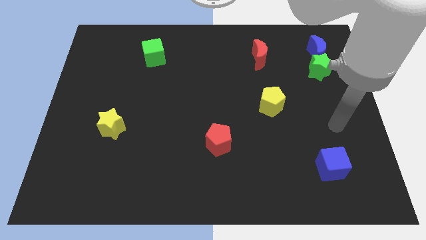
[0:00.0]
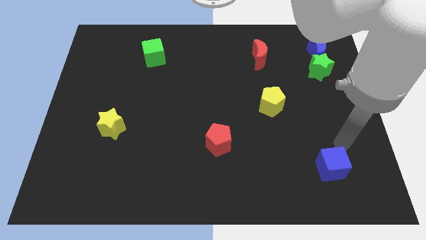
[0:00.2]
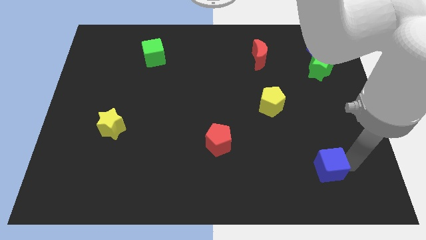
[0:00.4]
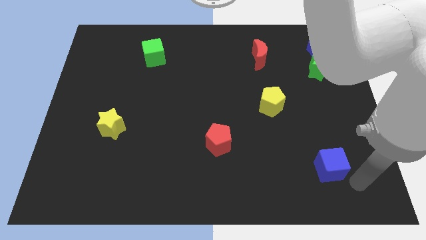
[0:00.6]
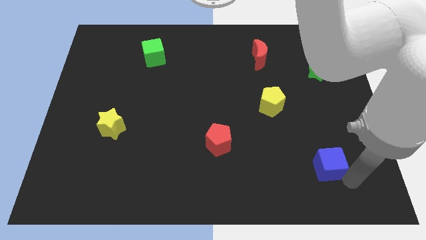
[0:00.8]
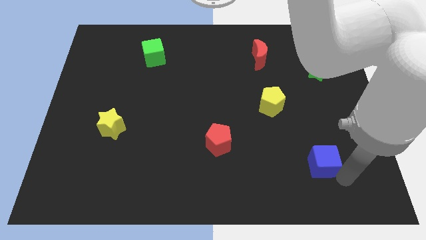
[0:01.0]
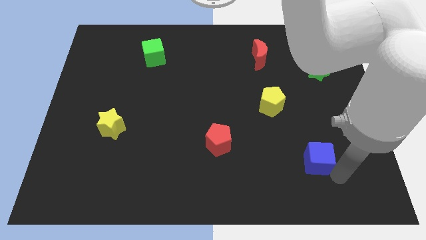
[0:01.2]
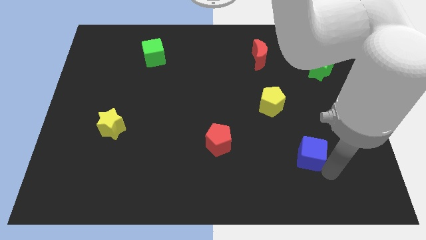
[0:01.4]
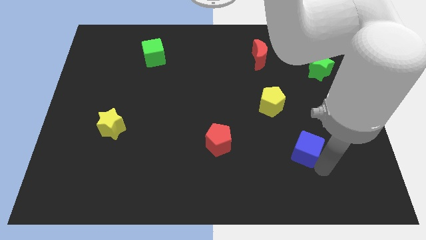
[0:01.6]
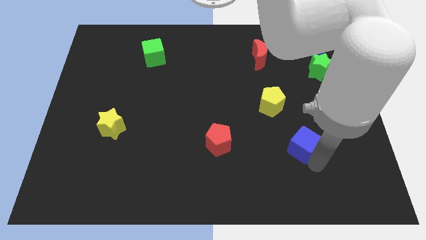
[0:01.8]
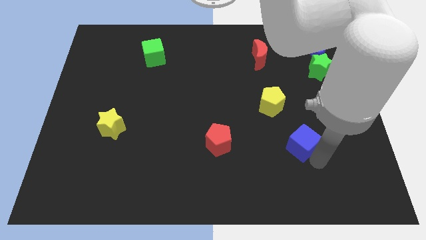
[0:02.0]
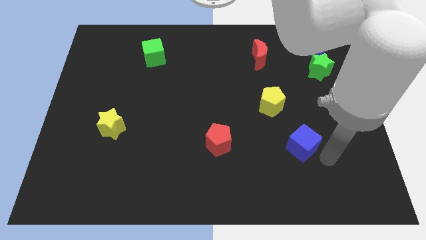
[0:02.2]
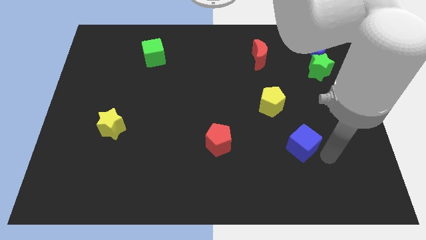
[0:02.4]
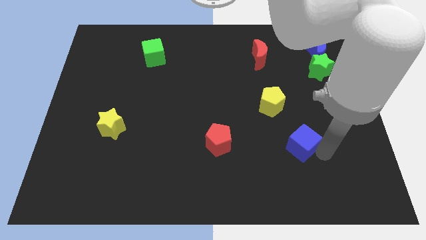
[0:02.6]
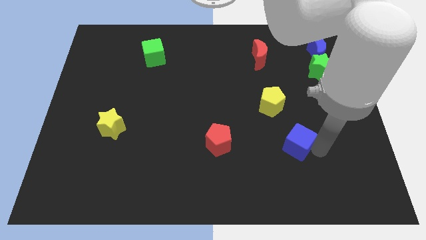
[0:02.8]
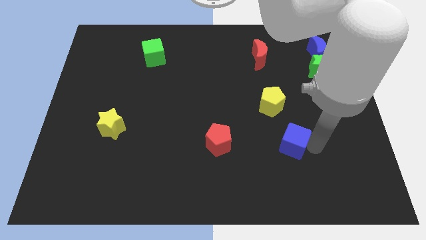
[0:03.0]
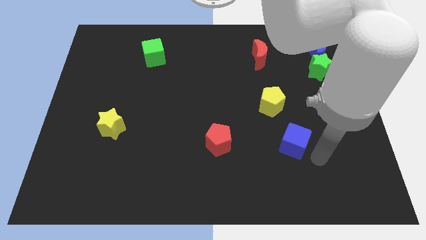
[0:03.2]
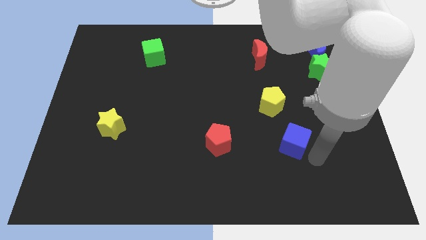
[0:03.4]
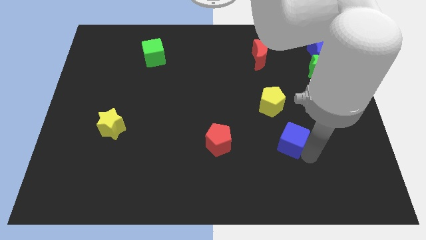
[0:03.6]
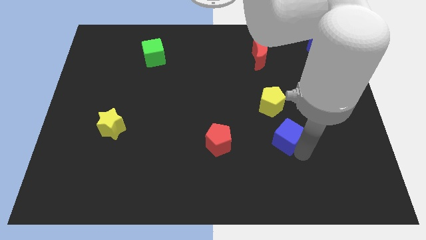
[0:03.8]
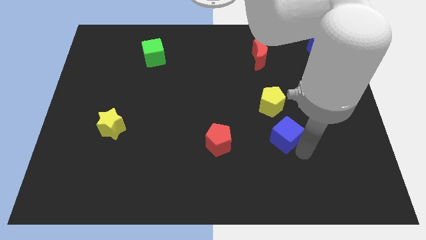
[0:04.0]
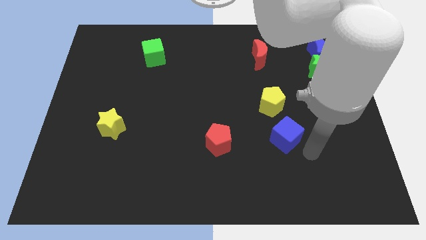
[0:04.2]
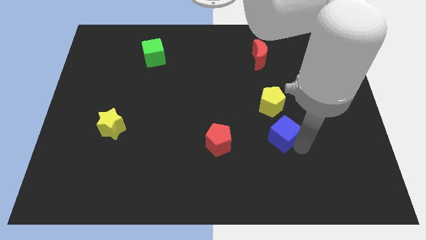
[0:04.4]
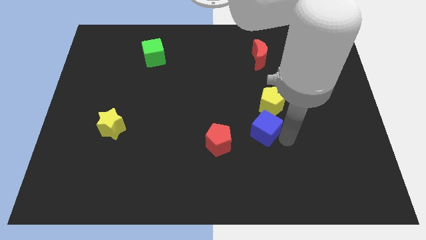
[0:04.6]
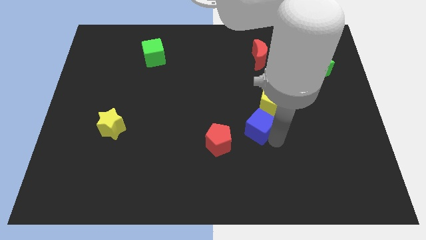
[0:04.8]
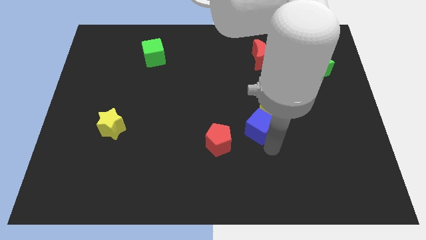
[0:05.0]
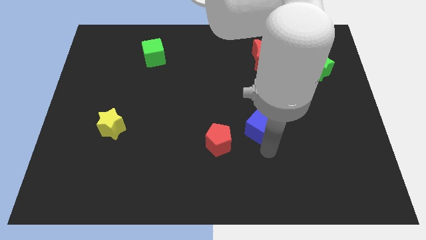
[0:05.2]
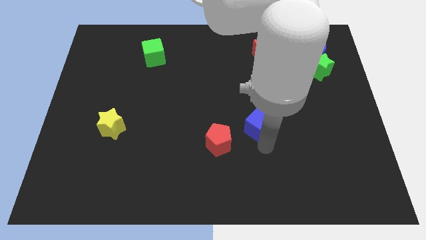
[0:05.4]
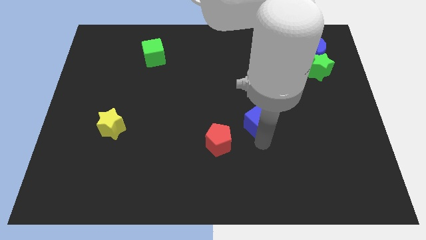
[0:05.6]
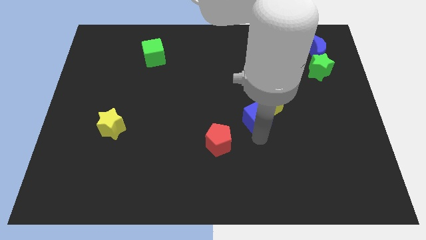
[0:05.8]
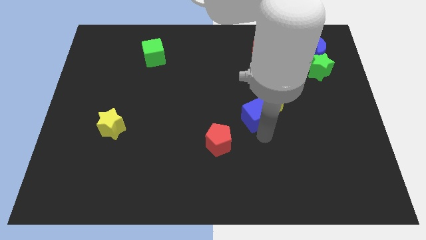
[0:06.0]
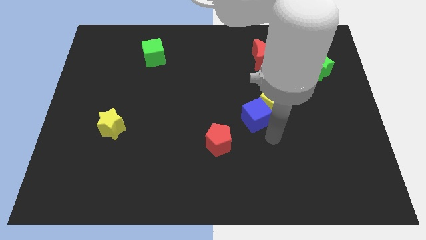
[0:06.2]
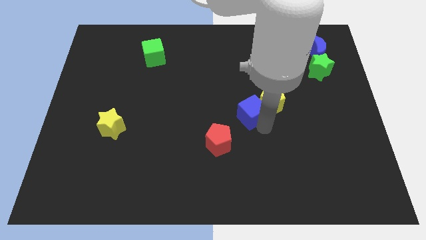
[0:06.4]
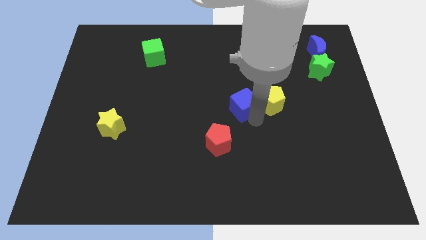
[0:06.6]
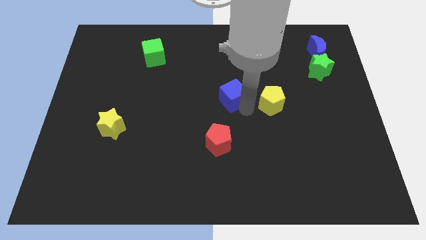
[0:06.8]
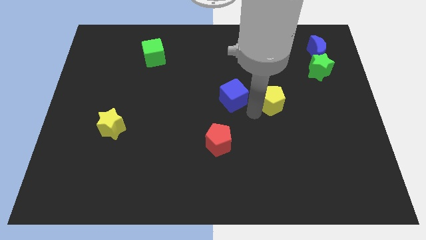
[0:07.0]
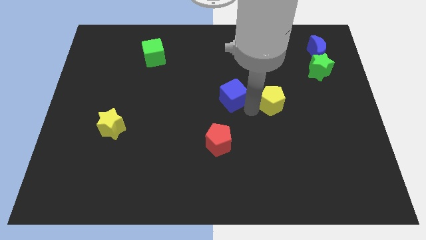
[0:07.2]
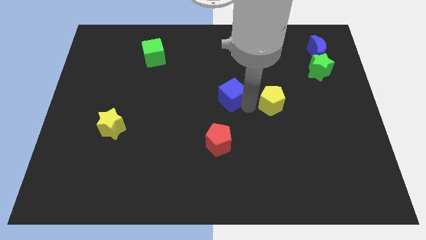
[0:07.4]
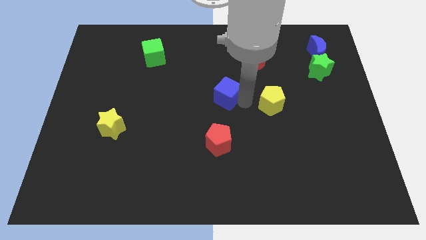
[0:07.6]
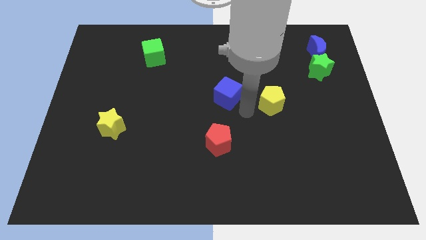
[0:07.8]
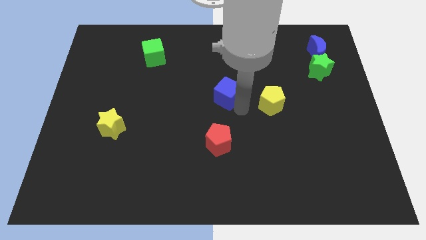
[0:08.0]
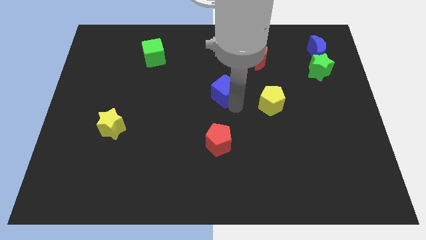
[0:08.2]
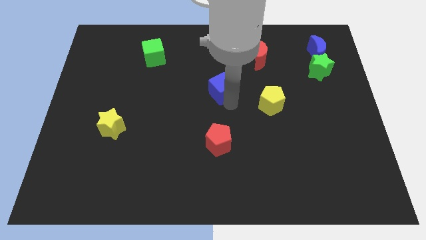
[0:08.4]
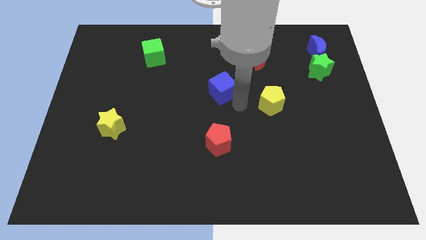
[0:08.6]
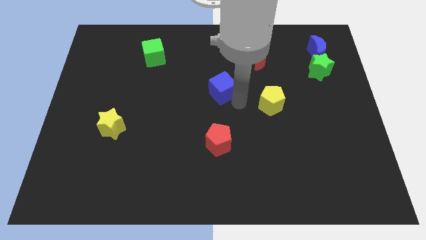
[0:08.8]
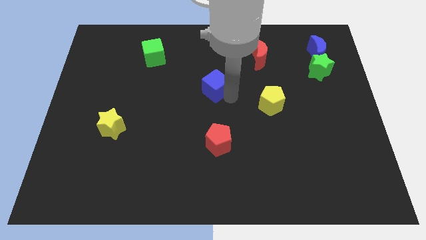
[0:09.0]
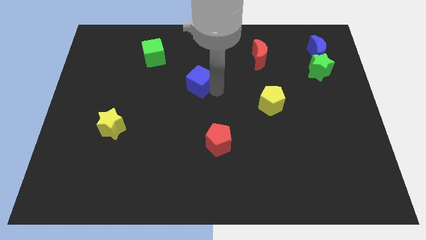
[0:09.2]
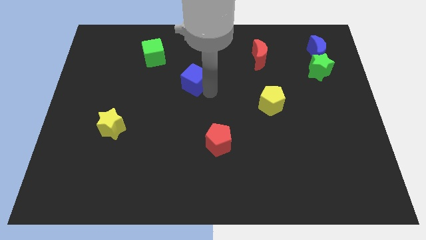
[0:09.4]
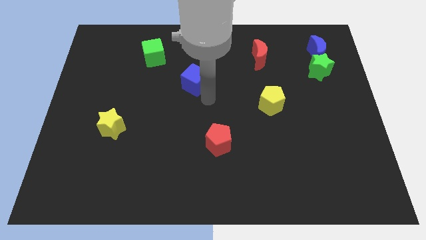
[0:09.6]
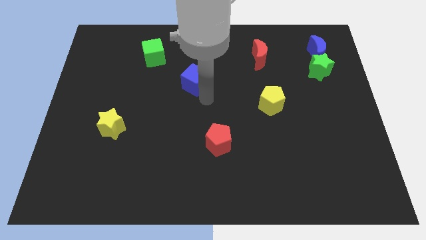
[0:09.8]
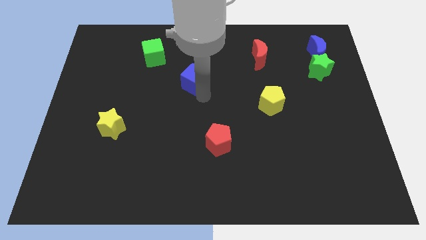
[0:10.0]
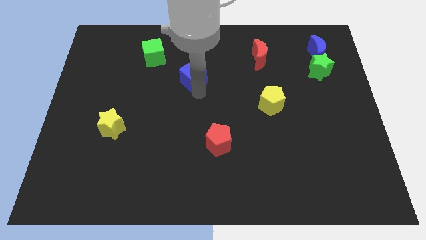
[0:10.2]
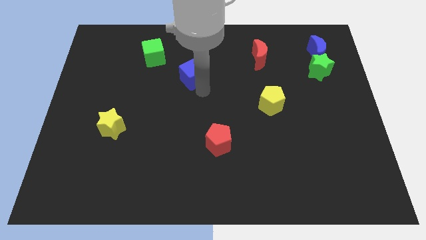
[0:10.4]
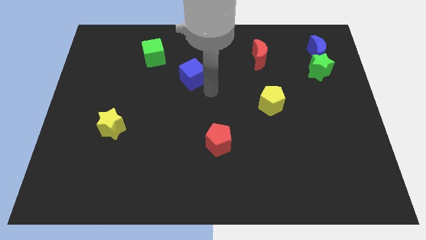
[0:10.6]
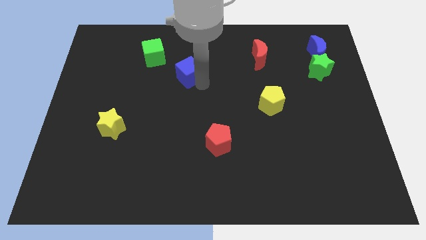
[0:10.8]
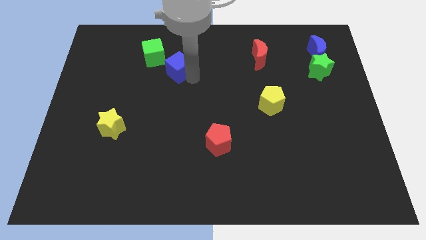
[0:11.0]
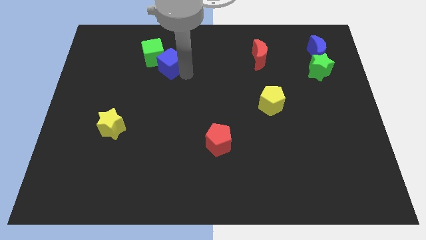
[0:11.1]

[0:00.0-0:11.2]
slide the blue cube next to the green cube

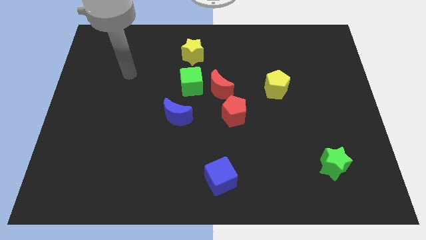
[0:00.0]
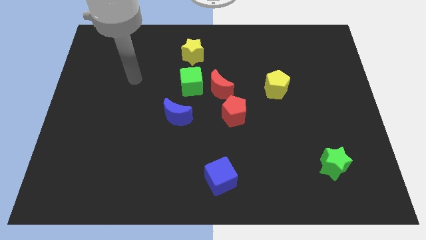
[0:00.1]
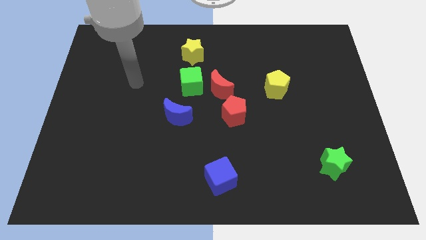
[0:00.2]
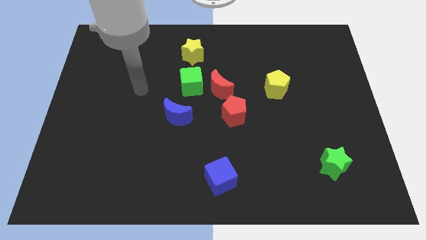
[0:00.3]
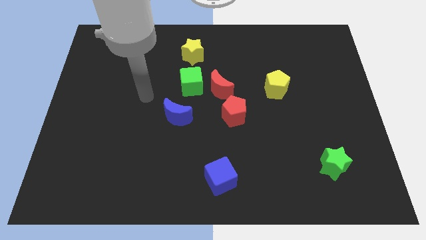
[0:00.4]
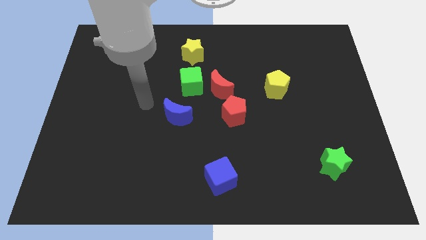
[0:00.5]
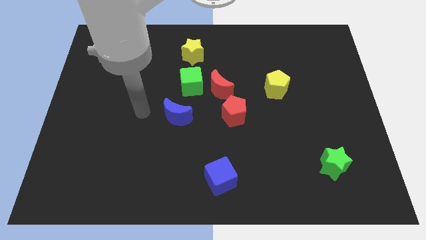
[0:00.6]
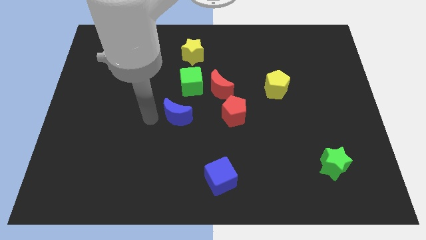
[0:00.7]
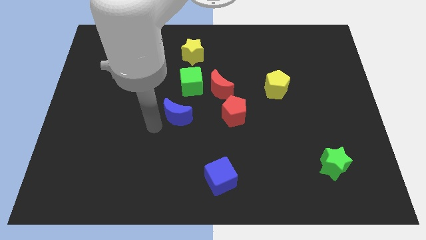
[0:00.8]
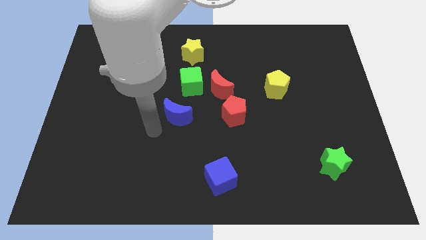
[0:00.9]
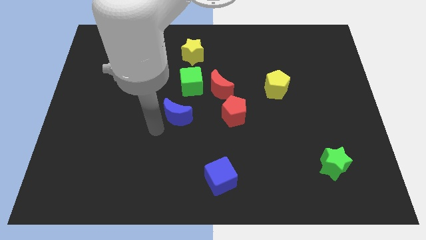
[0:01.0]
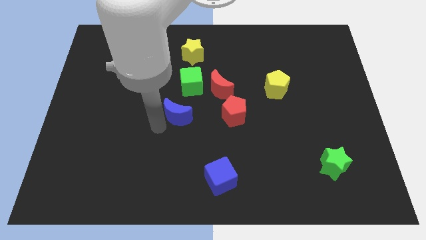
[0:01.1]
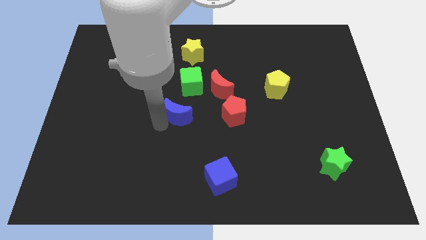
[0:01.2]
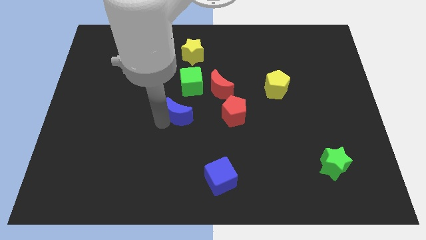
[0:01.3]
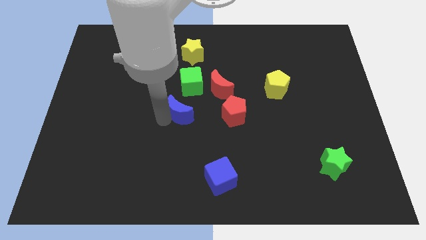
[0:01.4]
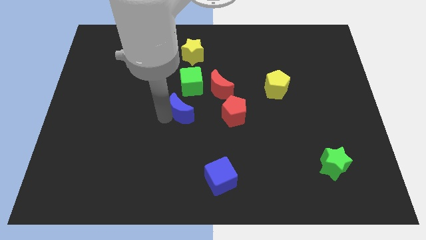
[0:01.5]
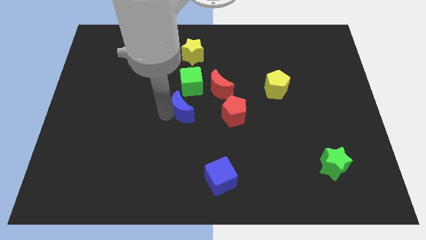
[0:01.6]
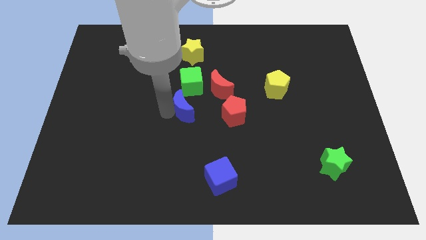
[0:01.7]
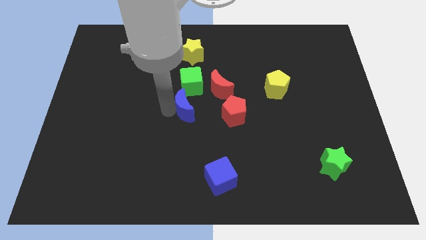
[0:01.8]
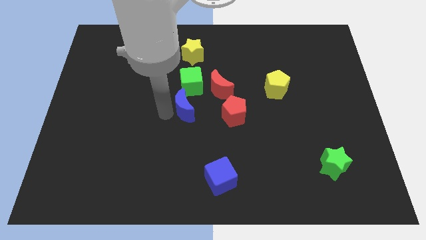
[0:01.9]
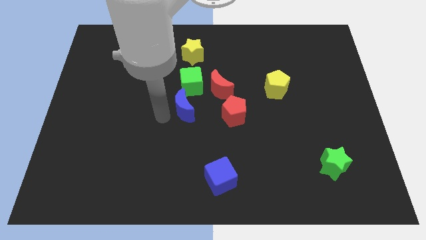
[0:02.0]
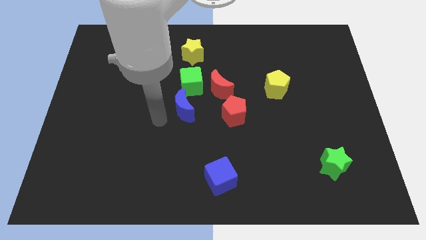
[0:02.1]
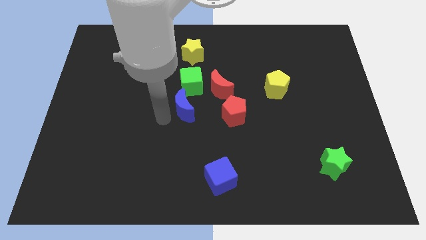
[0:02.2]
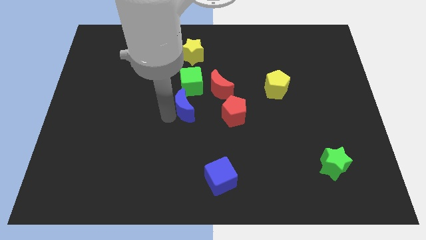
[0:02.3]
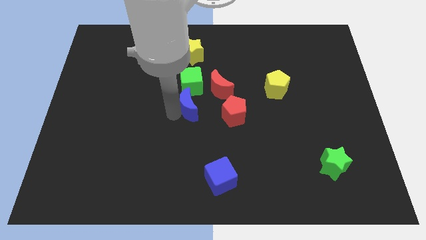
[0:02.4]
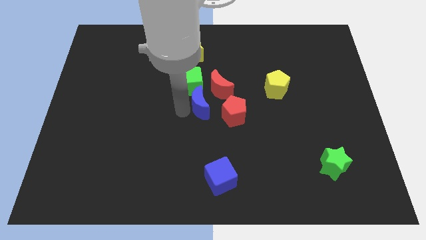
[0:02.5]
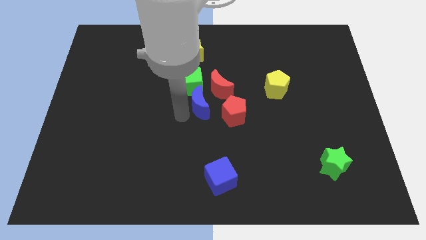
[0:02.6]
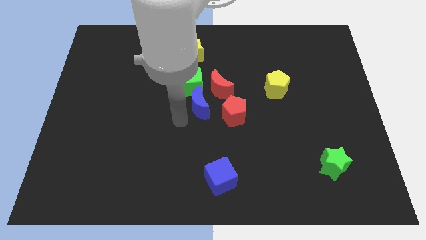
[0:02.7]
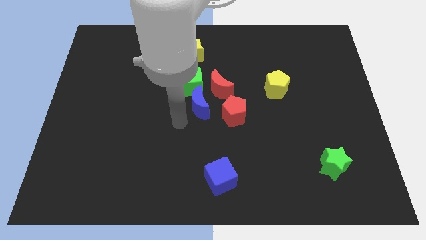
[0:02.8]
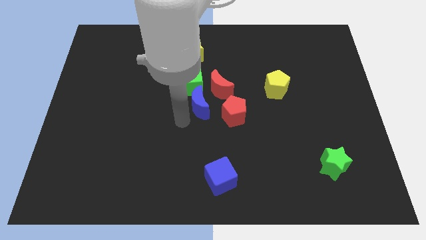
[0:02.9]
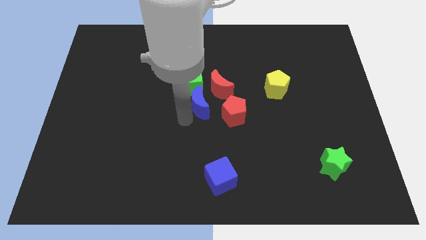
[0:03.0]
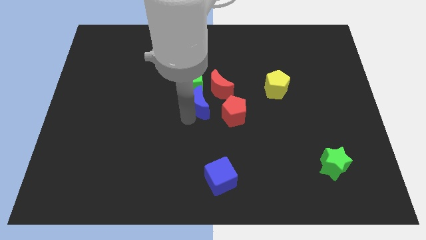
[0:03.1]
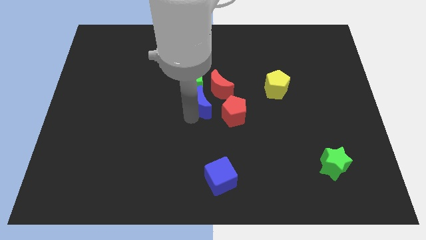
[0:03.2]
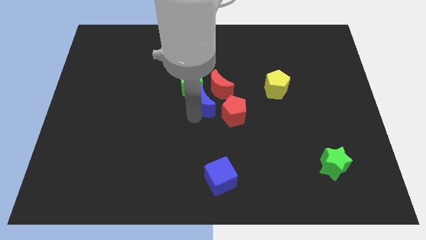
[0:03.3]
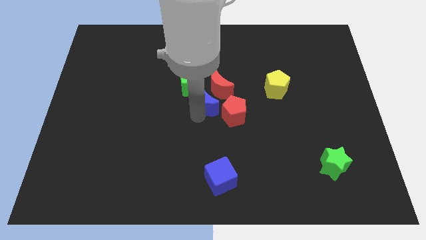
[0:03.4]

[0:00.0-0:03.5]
put the blue moon next to the red moon
